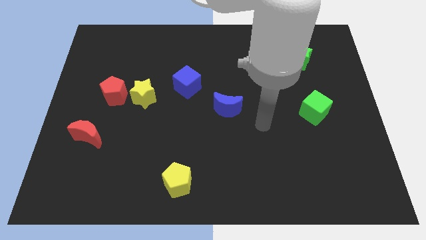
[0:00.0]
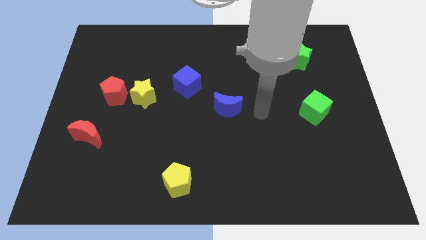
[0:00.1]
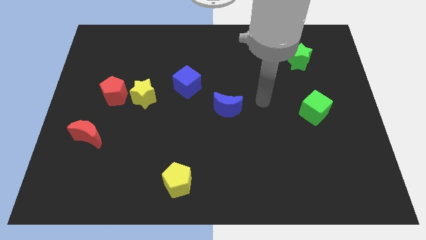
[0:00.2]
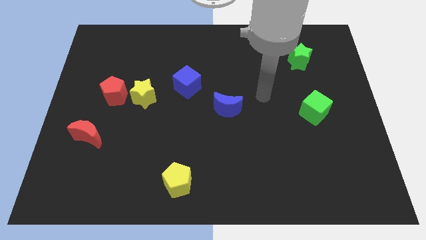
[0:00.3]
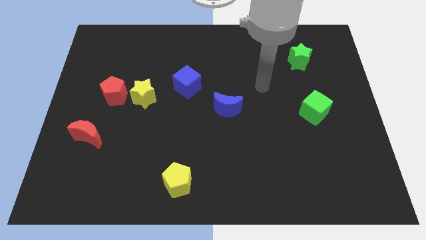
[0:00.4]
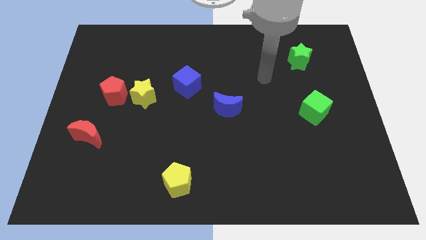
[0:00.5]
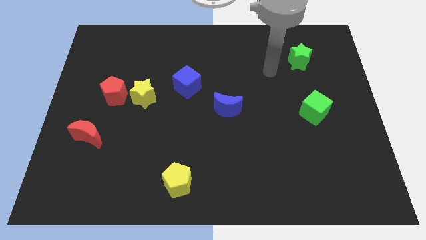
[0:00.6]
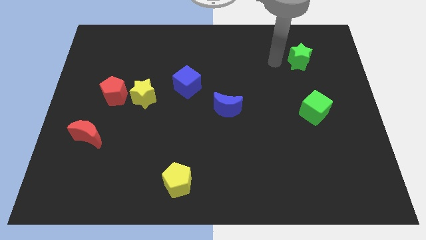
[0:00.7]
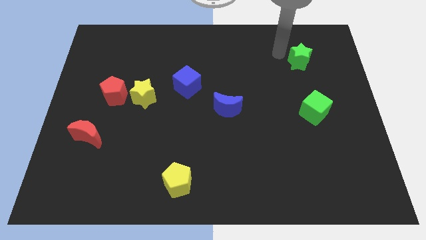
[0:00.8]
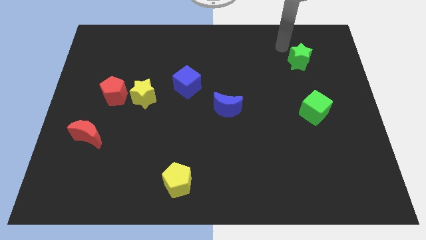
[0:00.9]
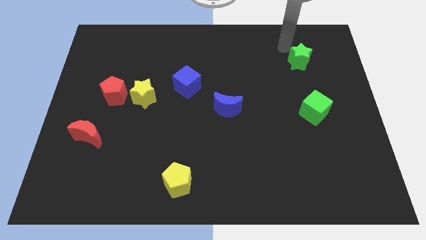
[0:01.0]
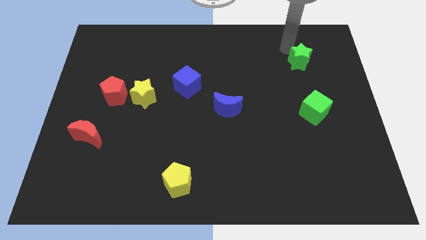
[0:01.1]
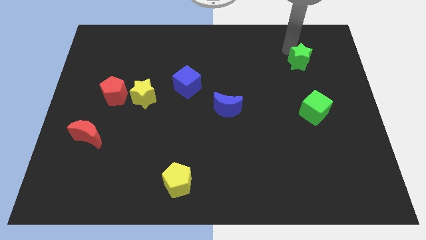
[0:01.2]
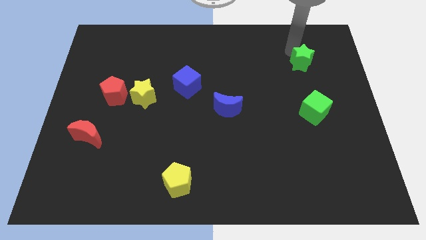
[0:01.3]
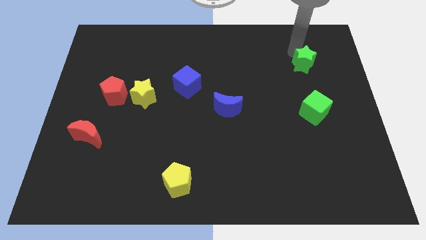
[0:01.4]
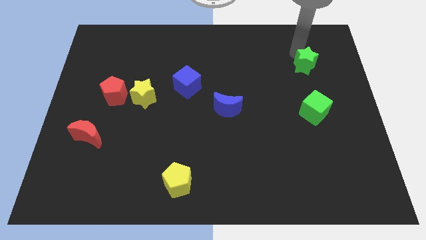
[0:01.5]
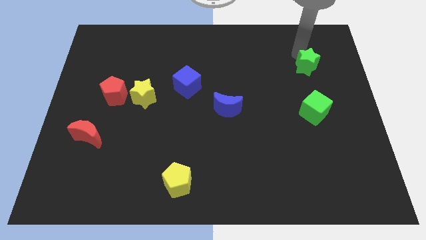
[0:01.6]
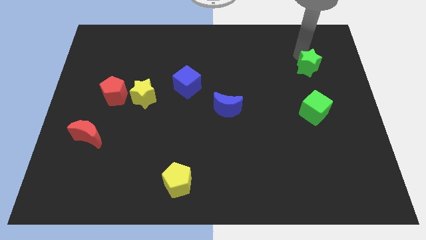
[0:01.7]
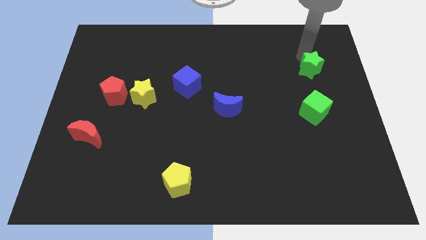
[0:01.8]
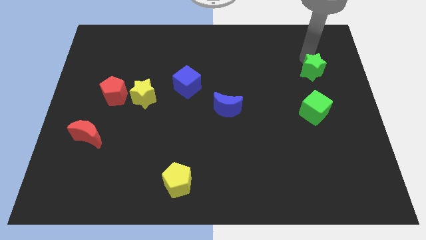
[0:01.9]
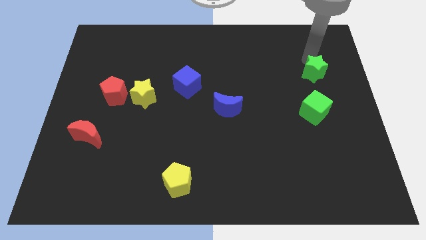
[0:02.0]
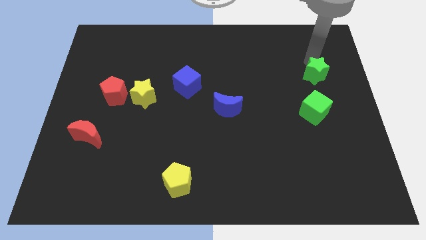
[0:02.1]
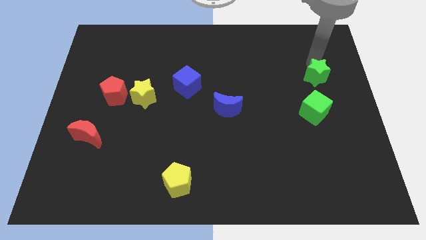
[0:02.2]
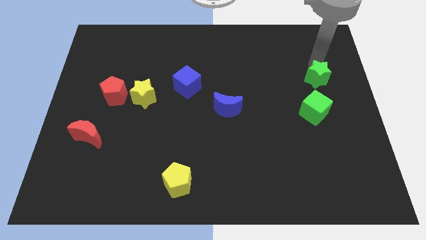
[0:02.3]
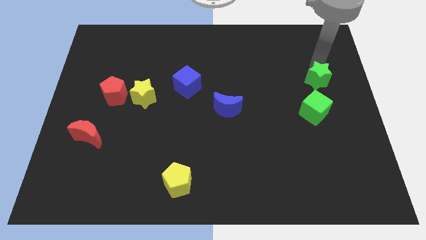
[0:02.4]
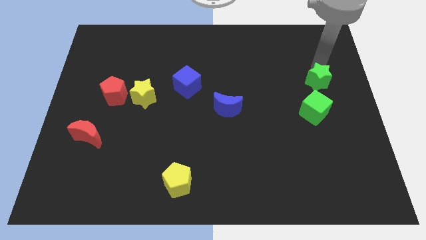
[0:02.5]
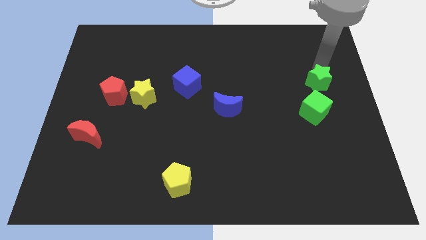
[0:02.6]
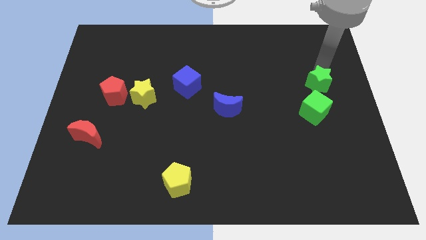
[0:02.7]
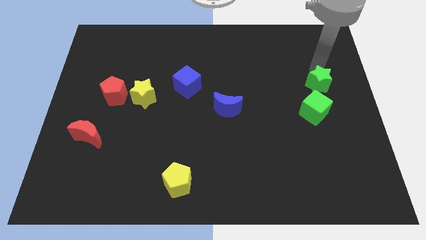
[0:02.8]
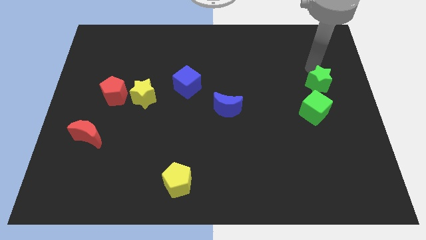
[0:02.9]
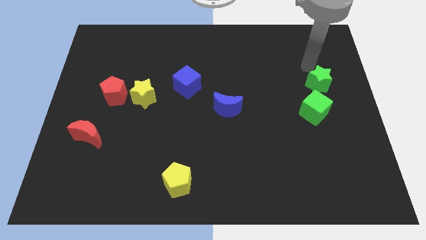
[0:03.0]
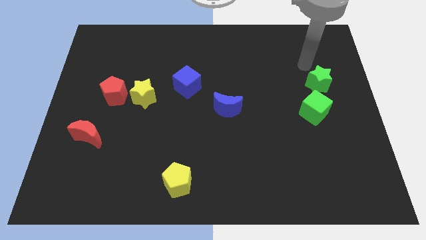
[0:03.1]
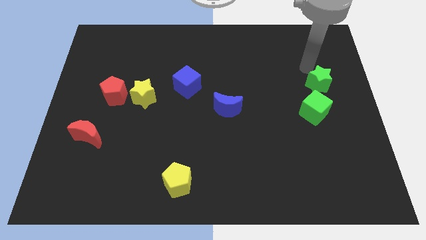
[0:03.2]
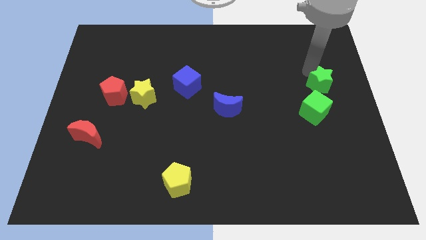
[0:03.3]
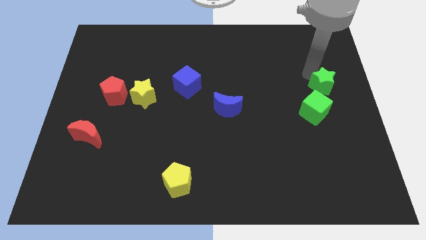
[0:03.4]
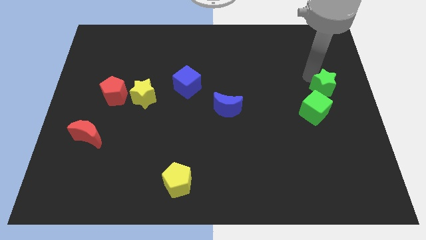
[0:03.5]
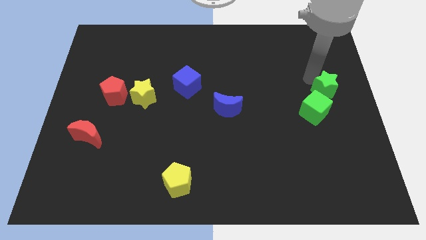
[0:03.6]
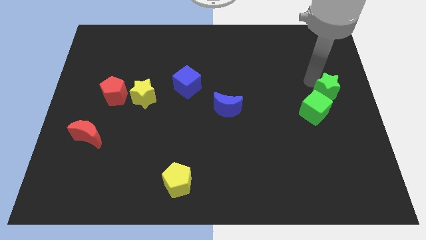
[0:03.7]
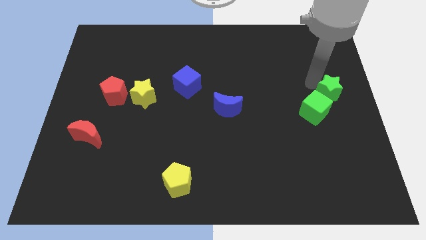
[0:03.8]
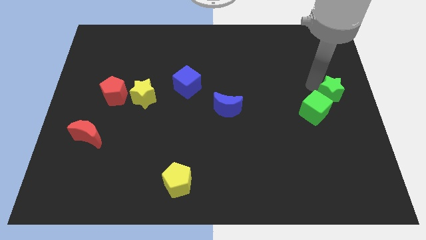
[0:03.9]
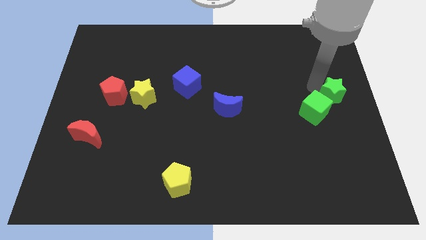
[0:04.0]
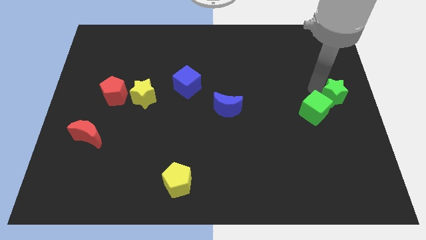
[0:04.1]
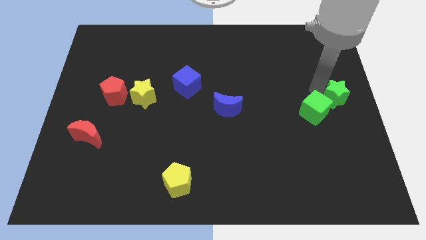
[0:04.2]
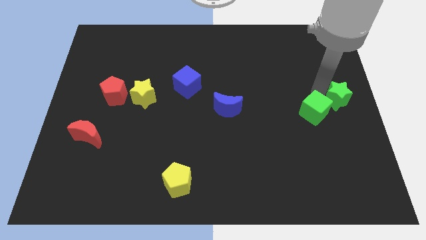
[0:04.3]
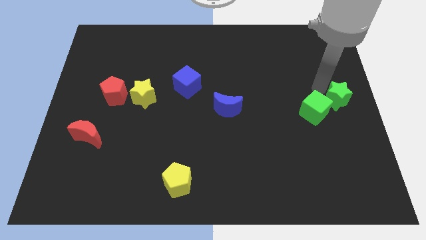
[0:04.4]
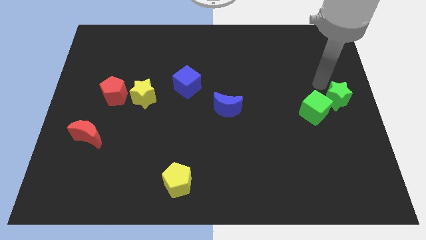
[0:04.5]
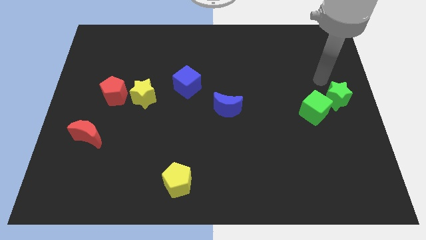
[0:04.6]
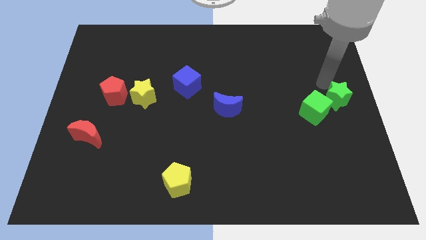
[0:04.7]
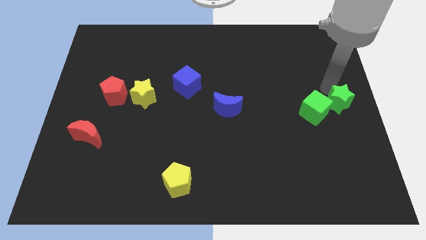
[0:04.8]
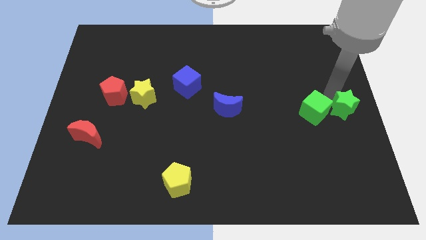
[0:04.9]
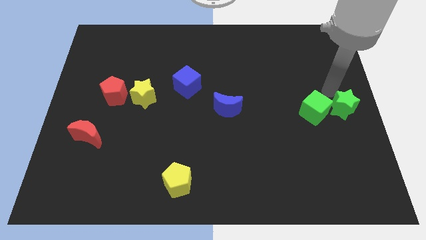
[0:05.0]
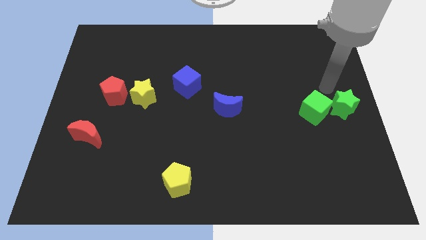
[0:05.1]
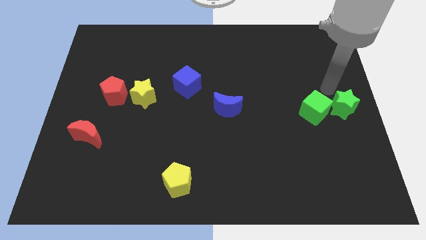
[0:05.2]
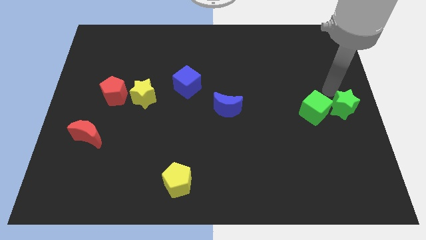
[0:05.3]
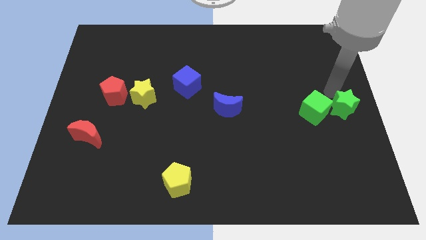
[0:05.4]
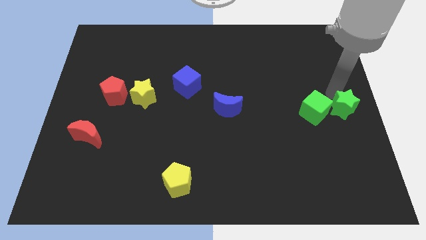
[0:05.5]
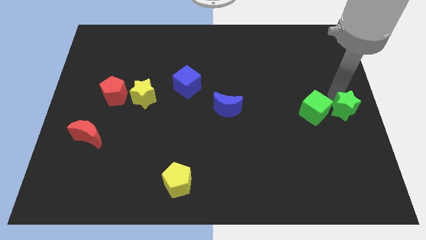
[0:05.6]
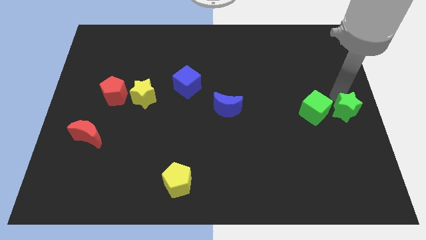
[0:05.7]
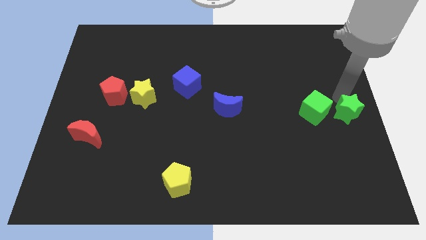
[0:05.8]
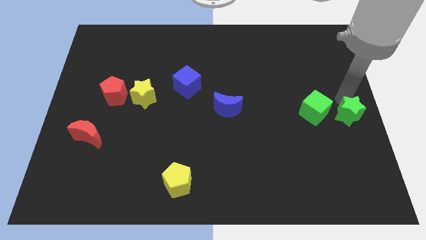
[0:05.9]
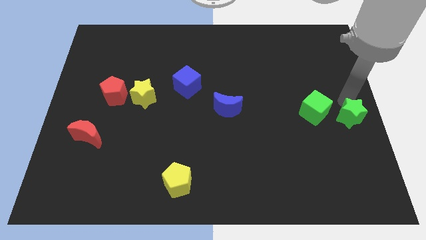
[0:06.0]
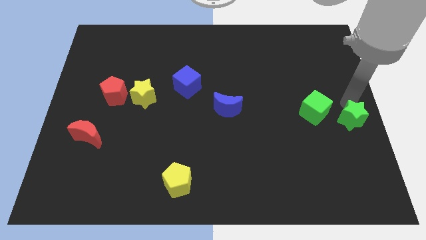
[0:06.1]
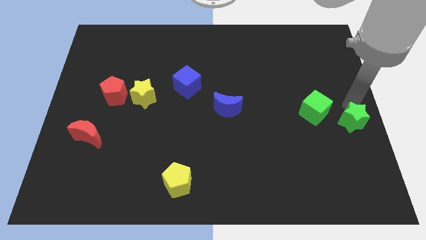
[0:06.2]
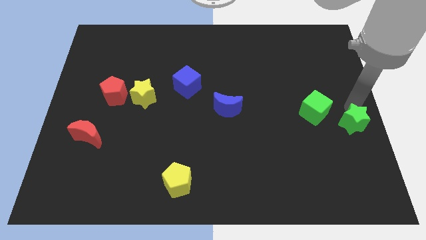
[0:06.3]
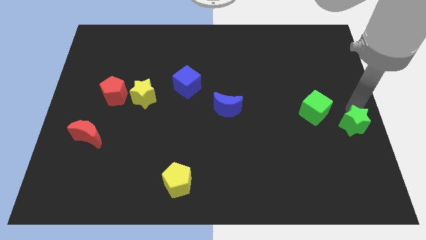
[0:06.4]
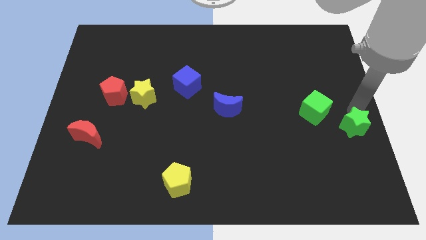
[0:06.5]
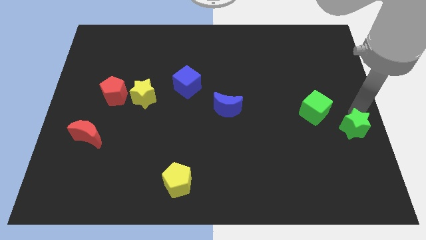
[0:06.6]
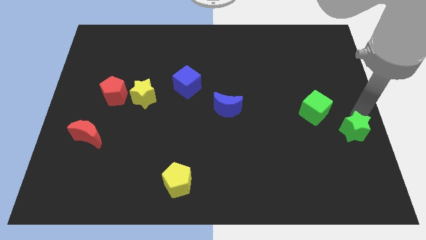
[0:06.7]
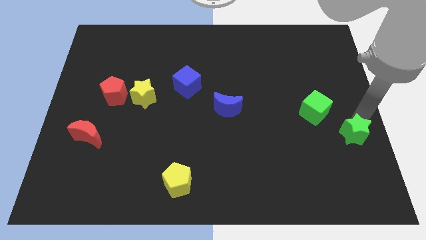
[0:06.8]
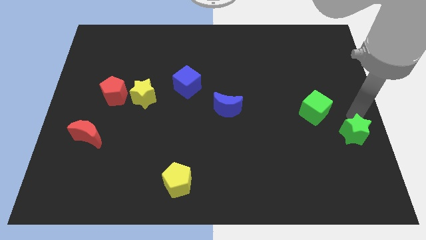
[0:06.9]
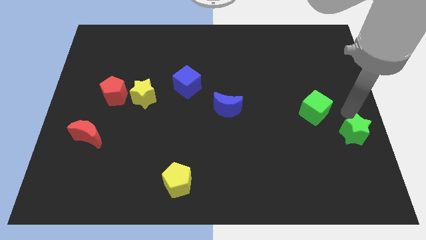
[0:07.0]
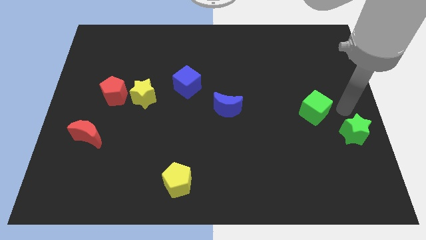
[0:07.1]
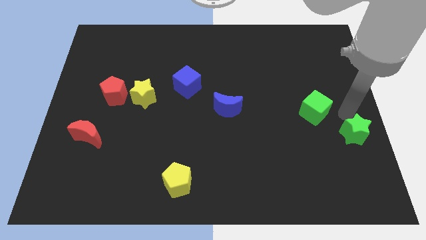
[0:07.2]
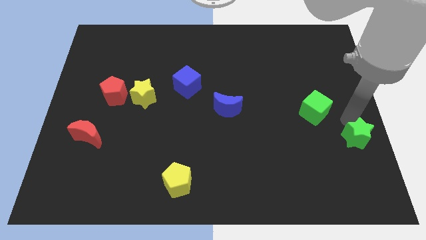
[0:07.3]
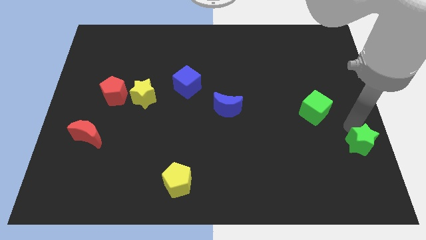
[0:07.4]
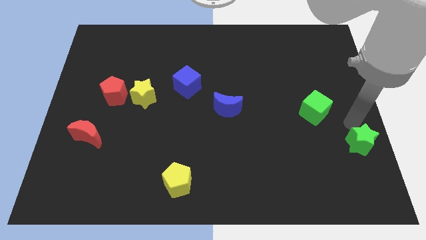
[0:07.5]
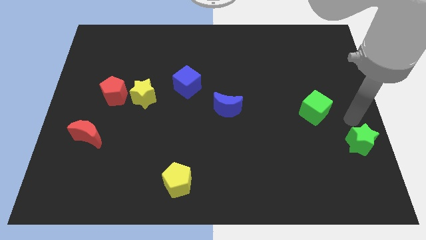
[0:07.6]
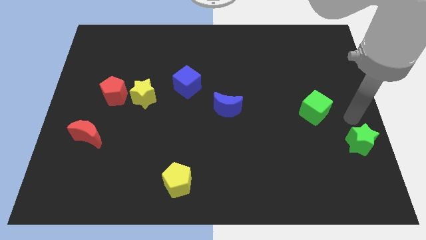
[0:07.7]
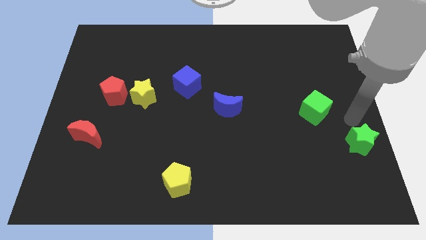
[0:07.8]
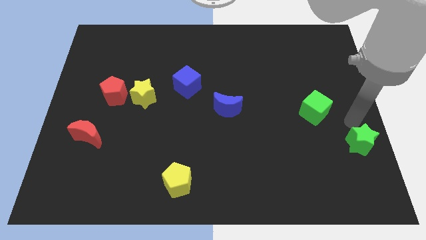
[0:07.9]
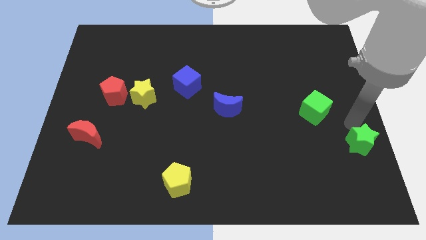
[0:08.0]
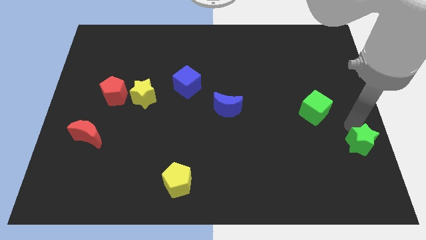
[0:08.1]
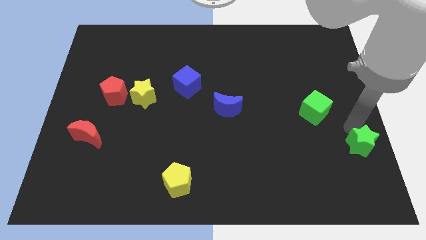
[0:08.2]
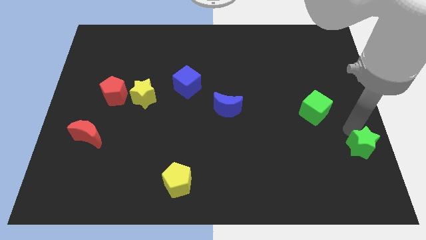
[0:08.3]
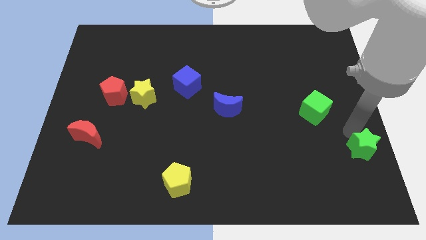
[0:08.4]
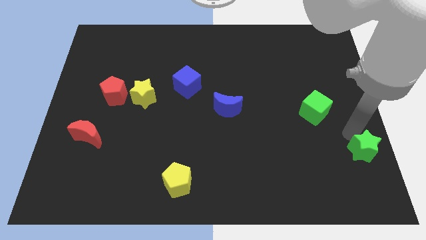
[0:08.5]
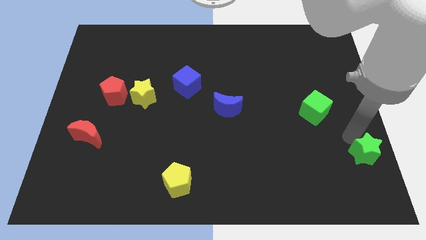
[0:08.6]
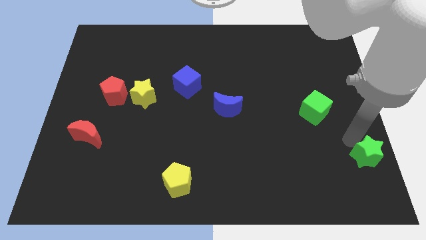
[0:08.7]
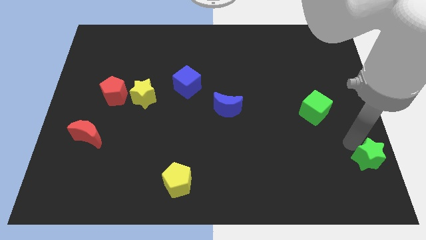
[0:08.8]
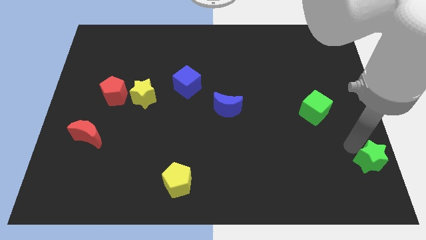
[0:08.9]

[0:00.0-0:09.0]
slide the green star to the bottom right
